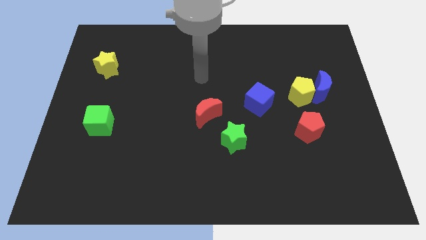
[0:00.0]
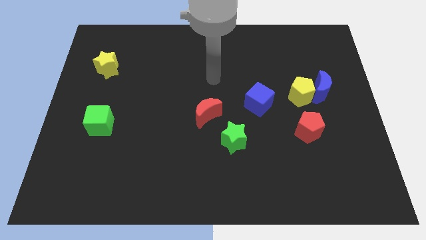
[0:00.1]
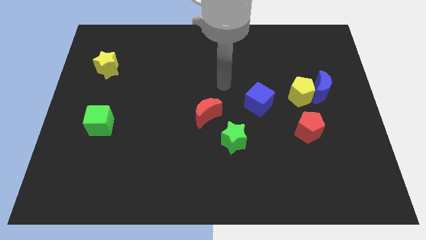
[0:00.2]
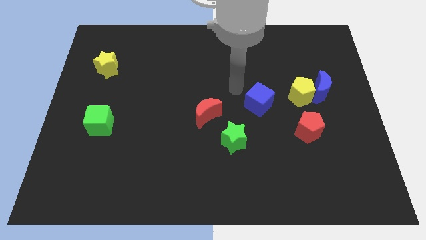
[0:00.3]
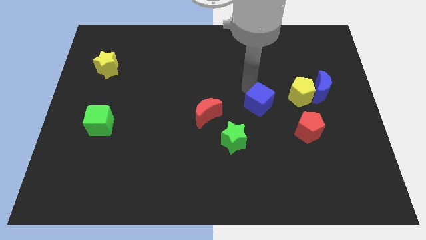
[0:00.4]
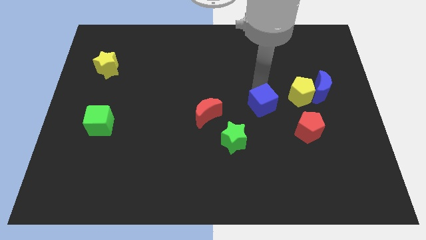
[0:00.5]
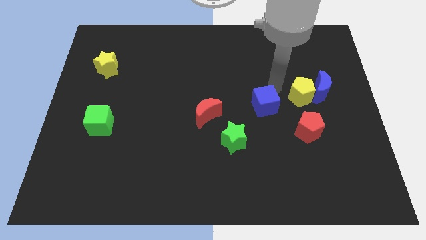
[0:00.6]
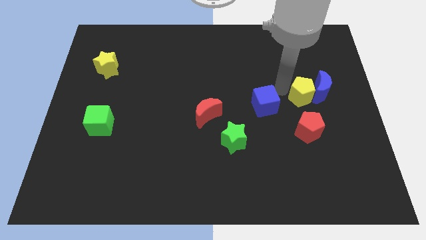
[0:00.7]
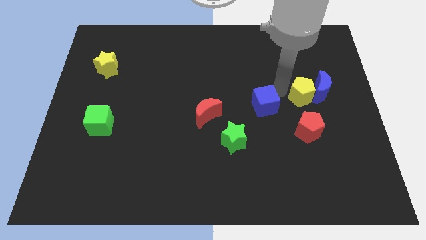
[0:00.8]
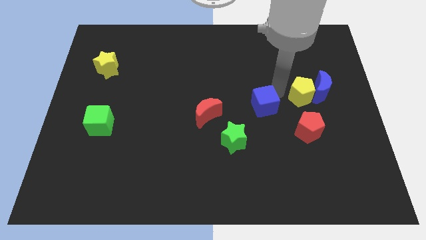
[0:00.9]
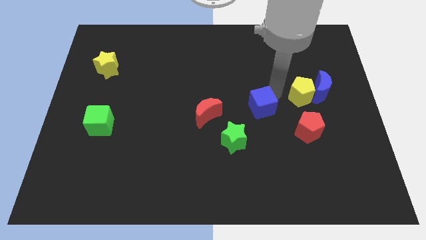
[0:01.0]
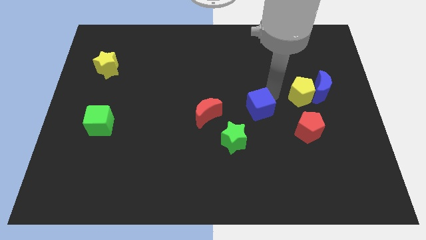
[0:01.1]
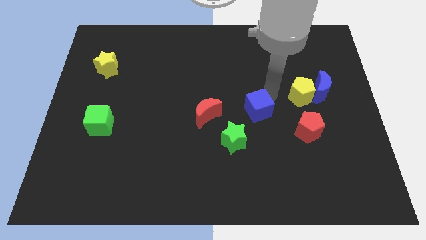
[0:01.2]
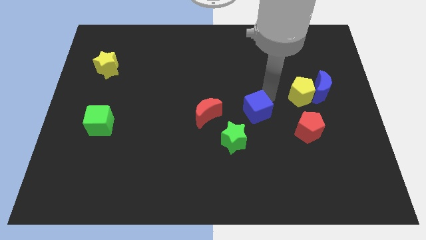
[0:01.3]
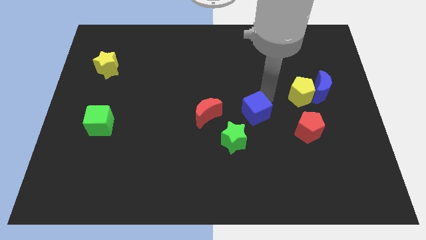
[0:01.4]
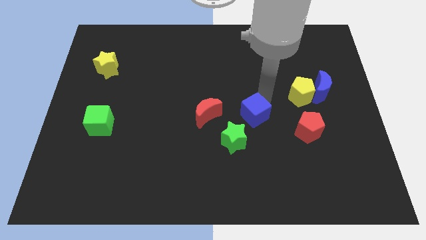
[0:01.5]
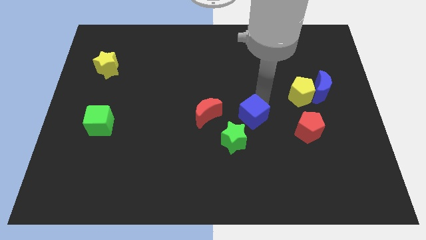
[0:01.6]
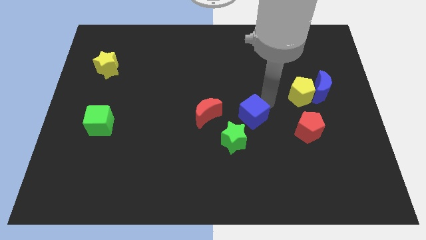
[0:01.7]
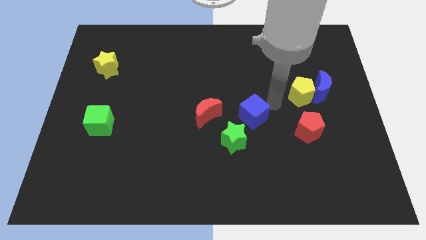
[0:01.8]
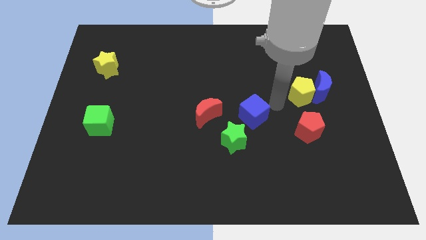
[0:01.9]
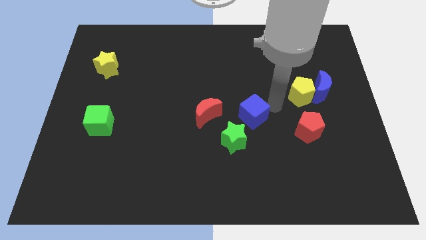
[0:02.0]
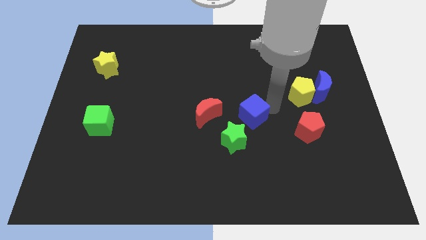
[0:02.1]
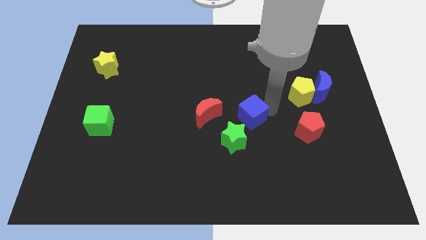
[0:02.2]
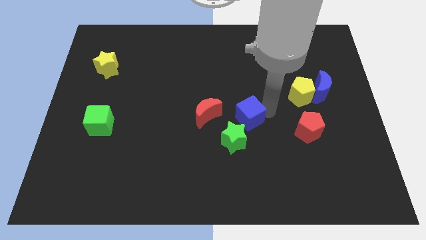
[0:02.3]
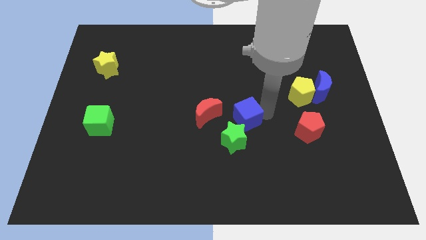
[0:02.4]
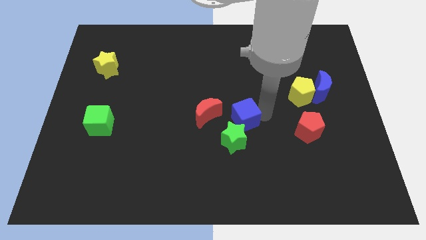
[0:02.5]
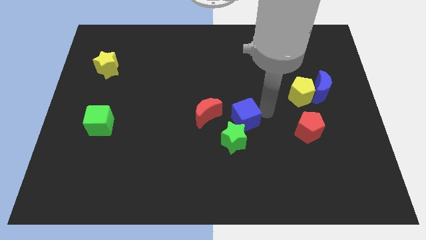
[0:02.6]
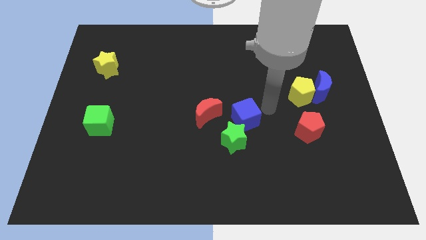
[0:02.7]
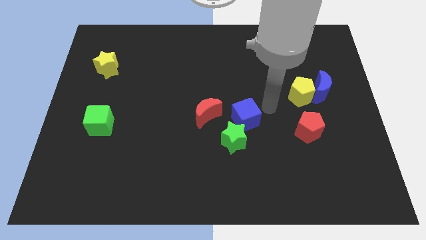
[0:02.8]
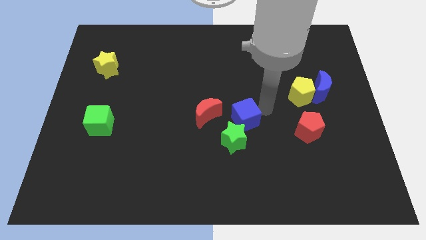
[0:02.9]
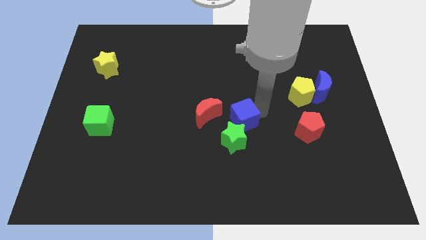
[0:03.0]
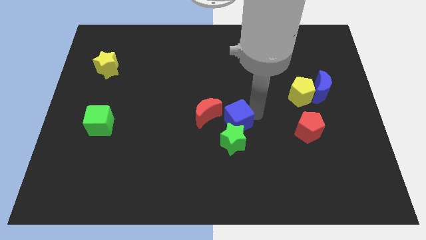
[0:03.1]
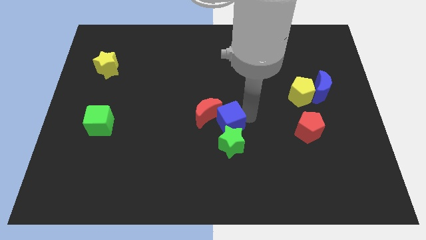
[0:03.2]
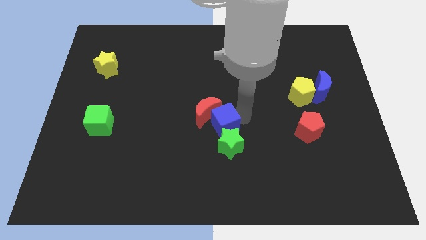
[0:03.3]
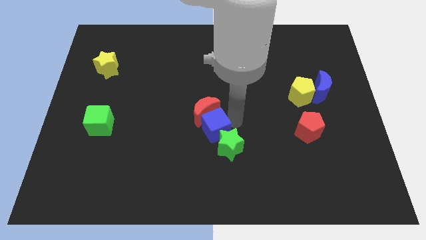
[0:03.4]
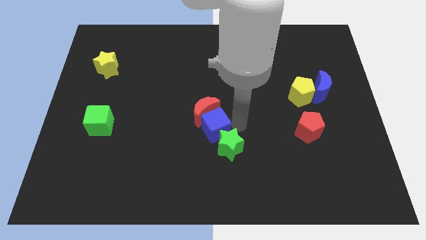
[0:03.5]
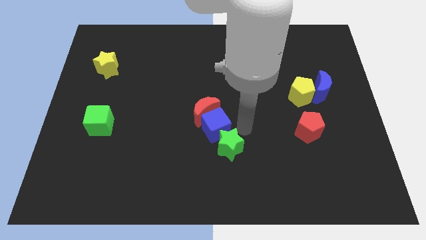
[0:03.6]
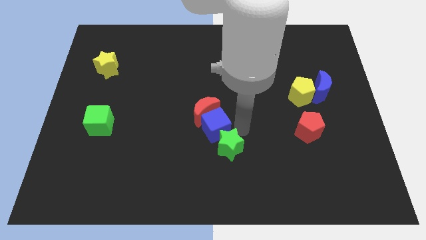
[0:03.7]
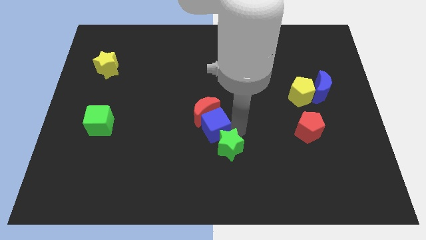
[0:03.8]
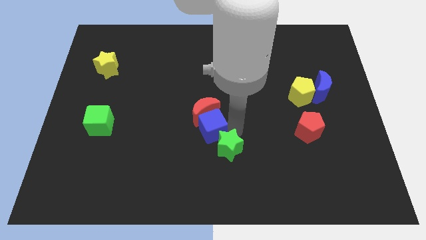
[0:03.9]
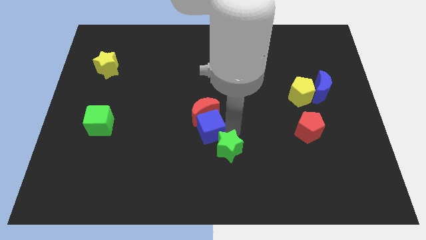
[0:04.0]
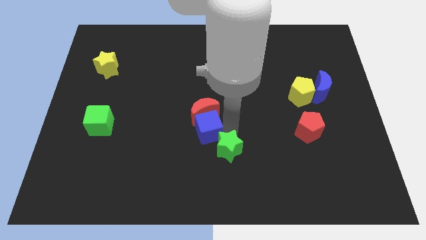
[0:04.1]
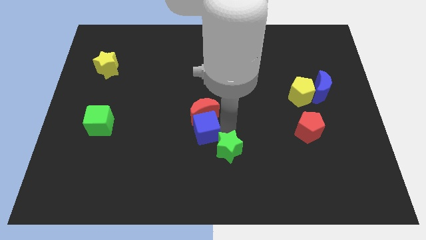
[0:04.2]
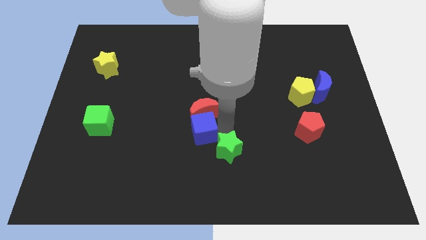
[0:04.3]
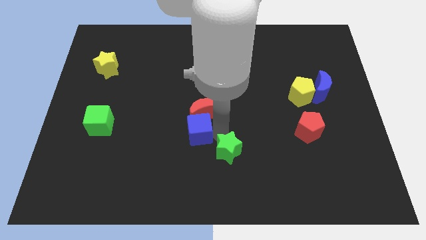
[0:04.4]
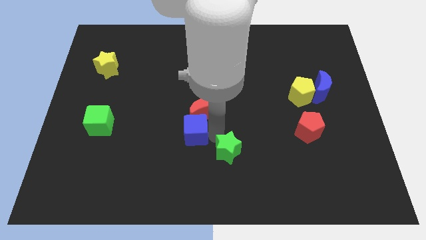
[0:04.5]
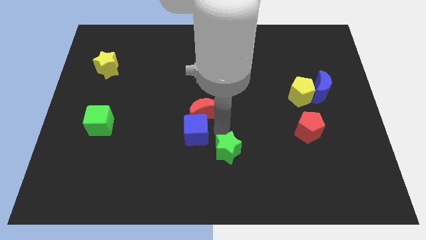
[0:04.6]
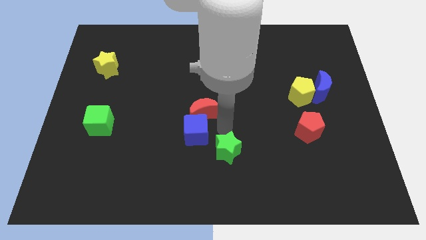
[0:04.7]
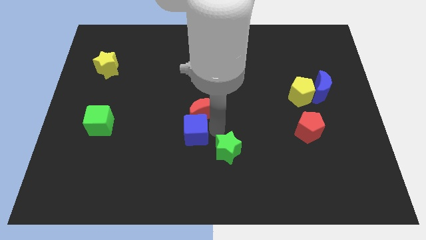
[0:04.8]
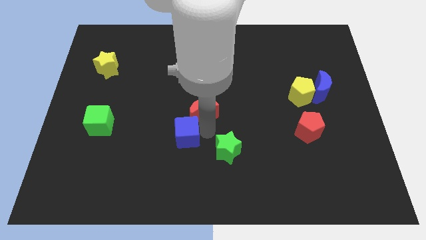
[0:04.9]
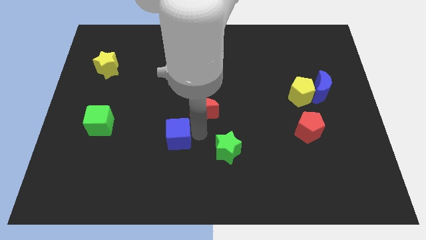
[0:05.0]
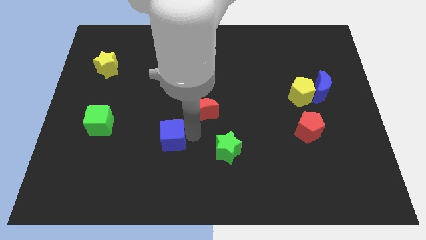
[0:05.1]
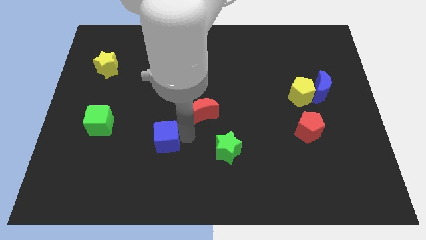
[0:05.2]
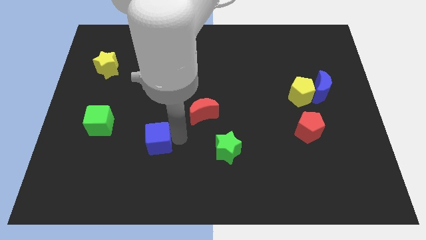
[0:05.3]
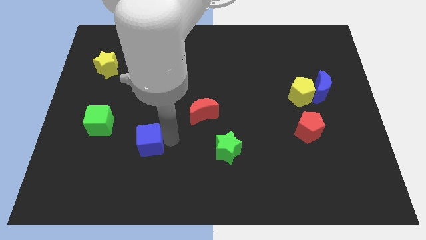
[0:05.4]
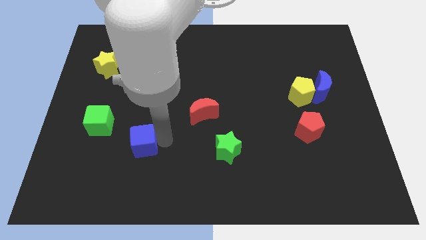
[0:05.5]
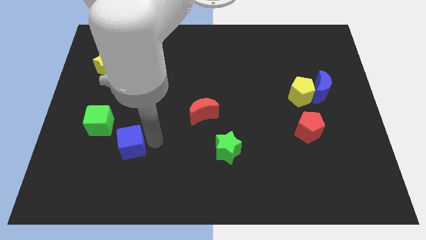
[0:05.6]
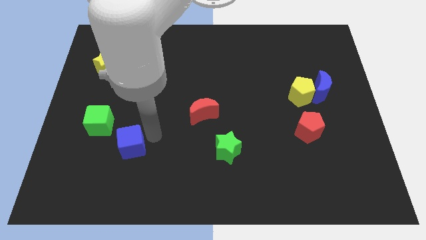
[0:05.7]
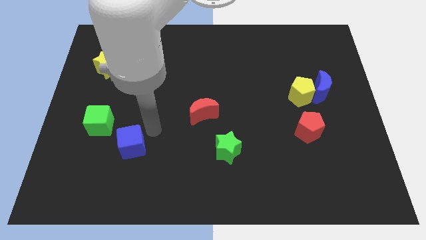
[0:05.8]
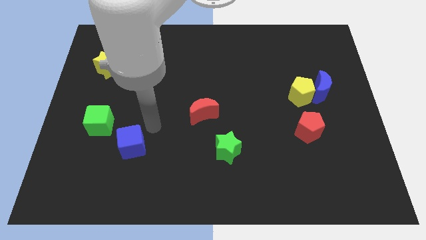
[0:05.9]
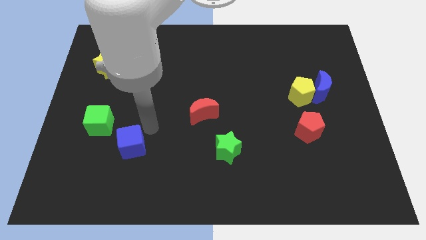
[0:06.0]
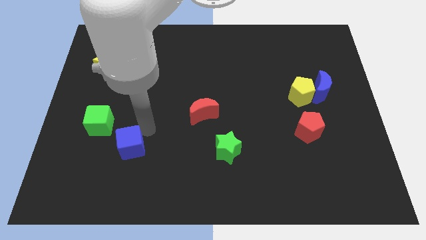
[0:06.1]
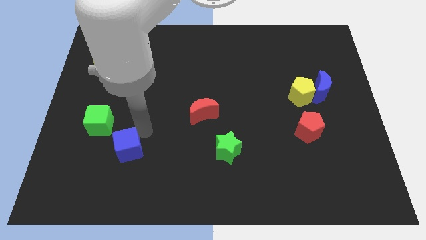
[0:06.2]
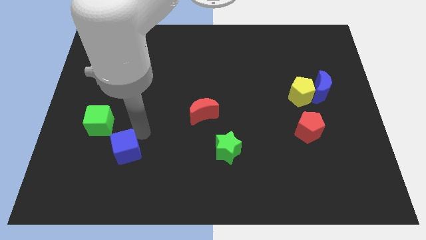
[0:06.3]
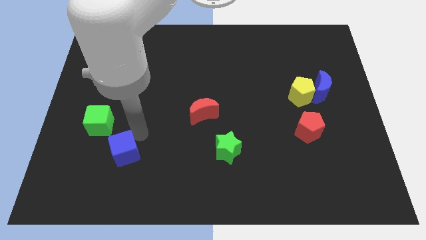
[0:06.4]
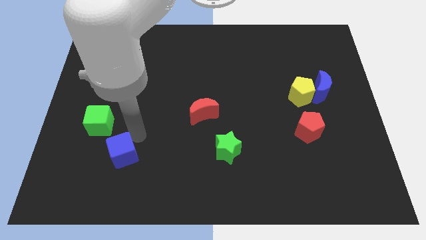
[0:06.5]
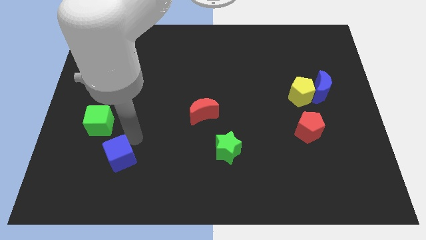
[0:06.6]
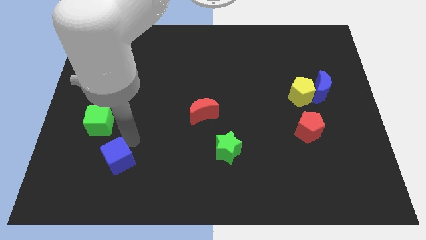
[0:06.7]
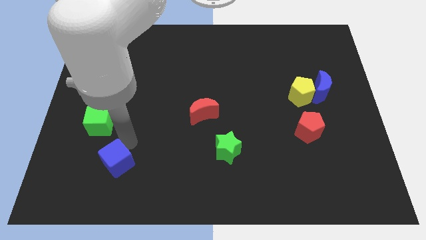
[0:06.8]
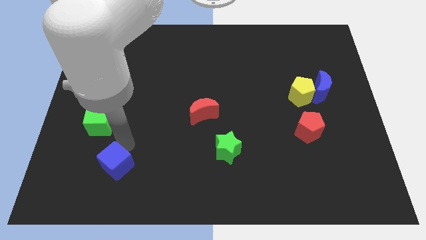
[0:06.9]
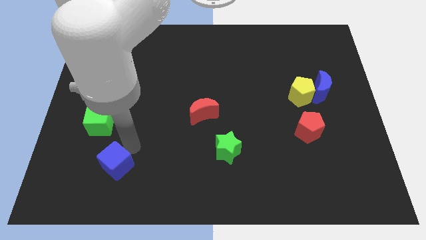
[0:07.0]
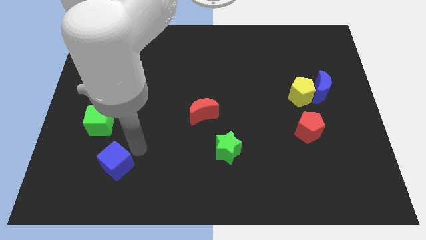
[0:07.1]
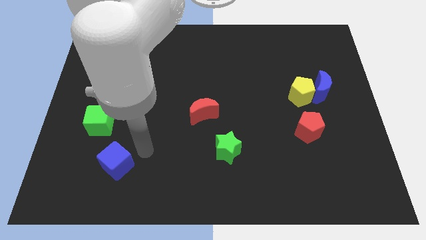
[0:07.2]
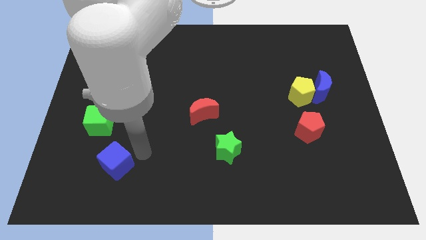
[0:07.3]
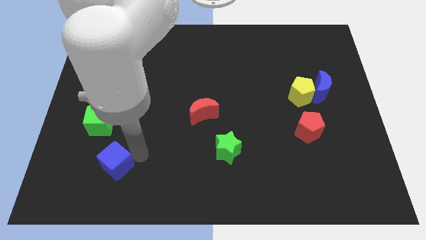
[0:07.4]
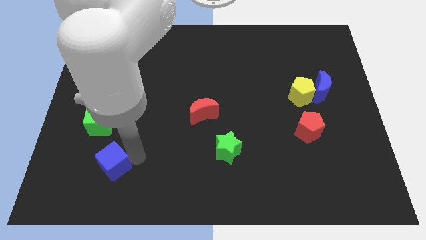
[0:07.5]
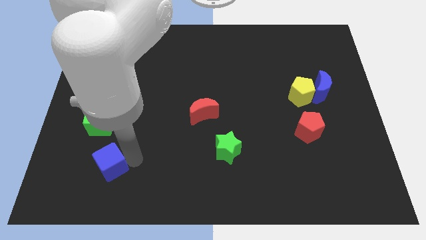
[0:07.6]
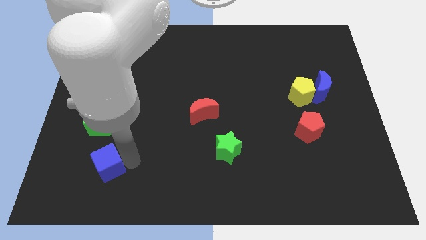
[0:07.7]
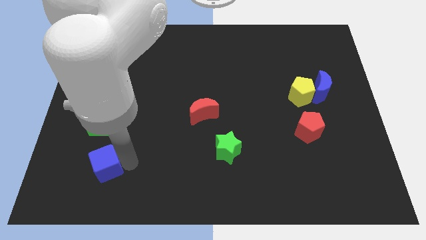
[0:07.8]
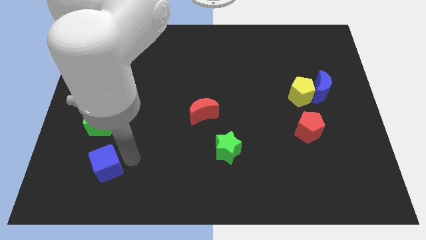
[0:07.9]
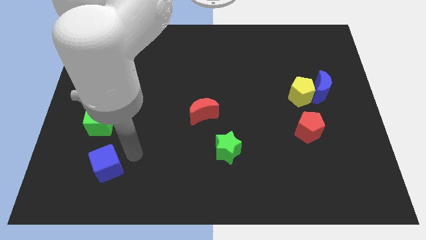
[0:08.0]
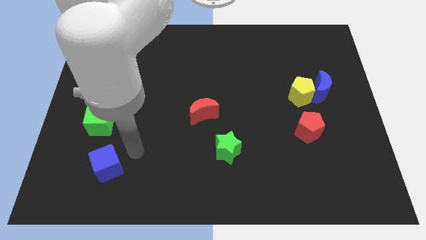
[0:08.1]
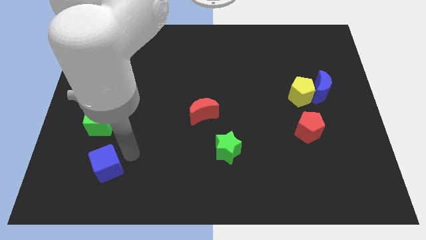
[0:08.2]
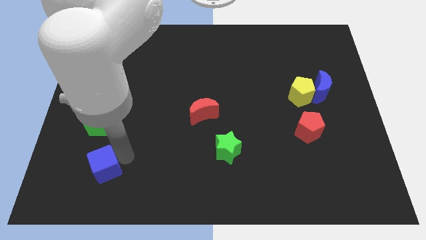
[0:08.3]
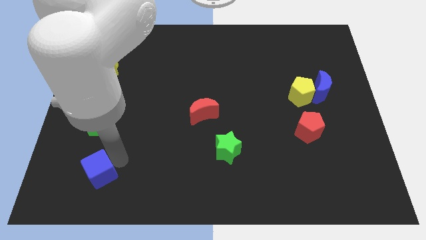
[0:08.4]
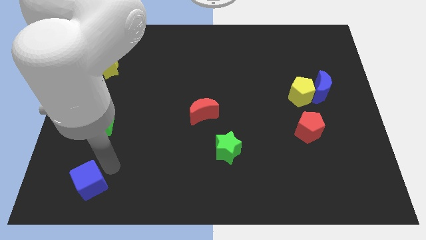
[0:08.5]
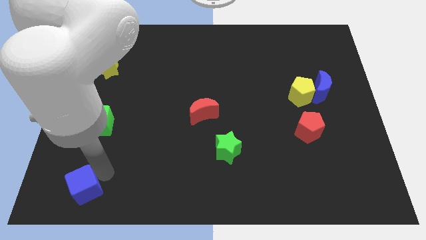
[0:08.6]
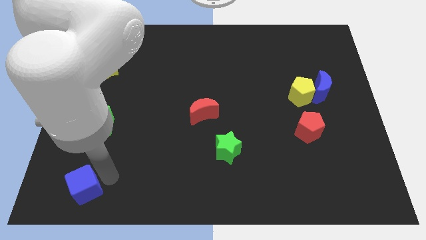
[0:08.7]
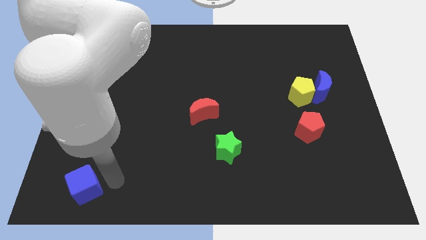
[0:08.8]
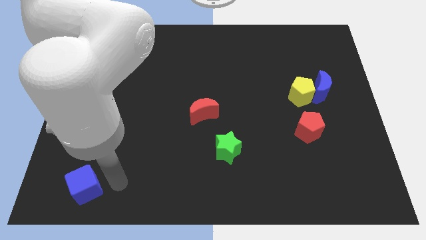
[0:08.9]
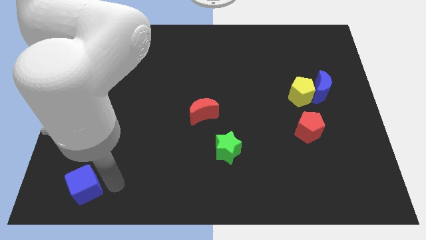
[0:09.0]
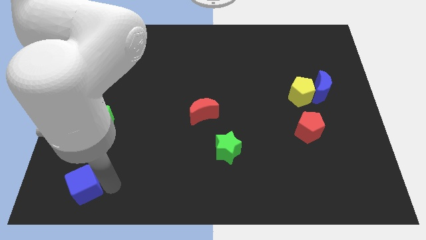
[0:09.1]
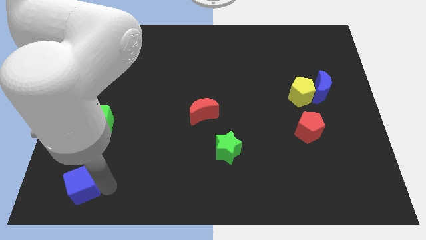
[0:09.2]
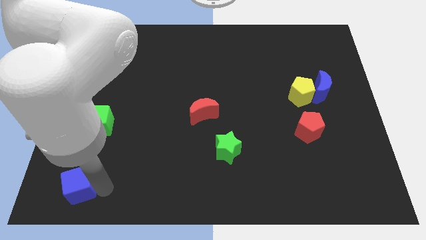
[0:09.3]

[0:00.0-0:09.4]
move the blue cube to the bottom left corner
